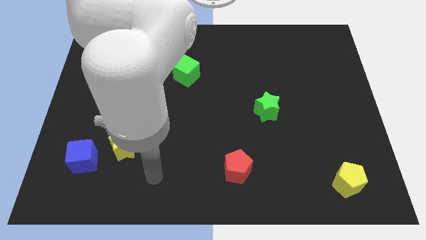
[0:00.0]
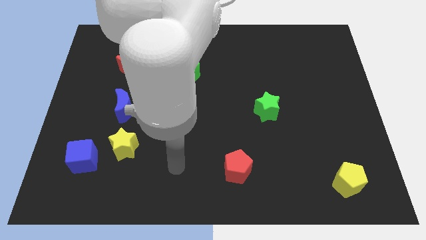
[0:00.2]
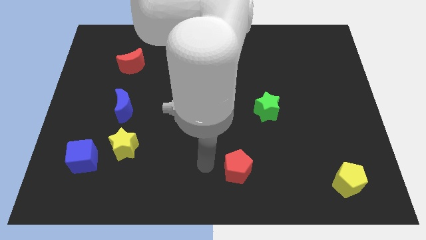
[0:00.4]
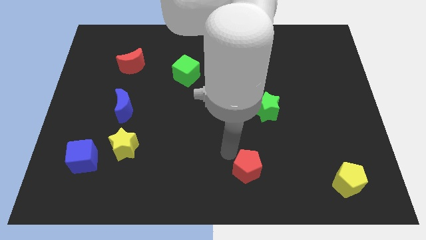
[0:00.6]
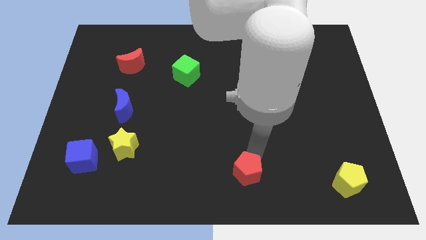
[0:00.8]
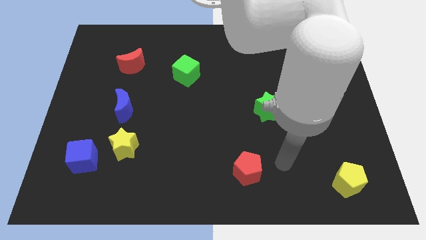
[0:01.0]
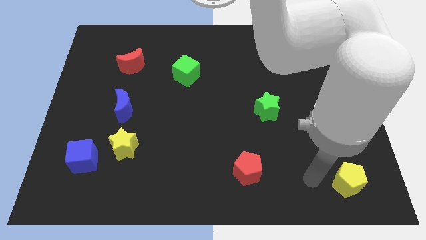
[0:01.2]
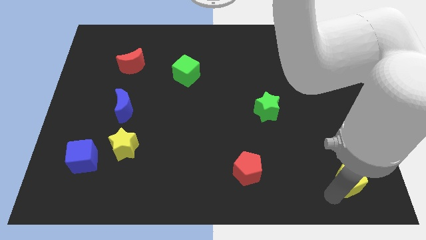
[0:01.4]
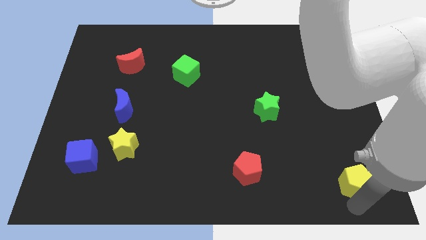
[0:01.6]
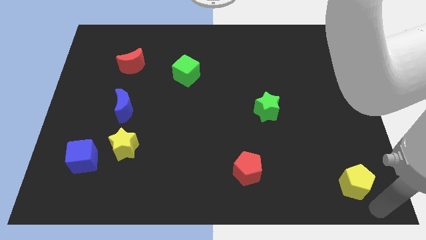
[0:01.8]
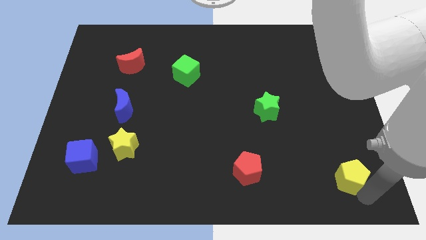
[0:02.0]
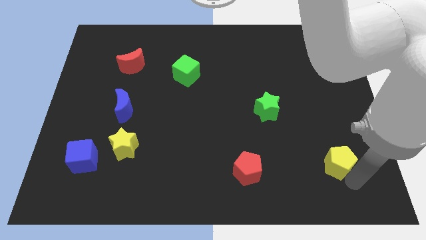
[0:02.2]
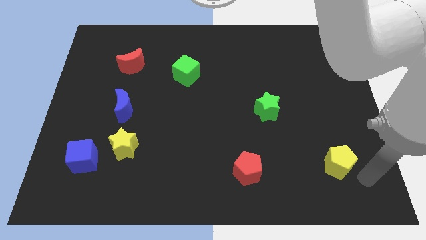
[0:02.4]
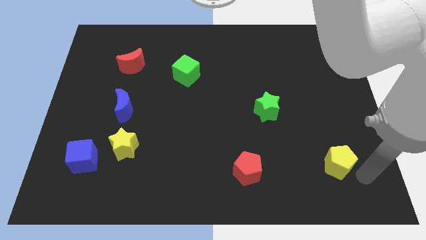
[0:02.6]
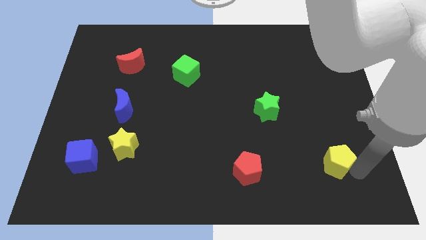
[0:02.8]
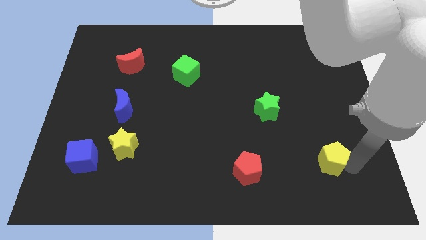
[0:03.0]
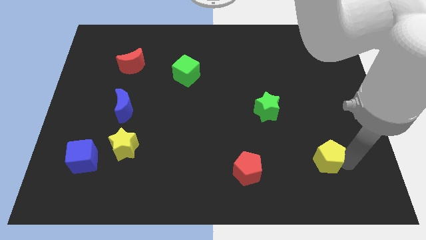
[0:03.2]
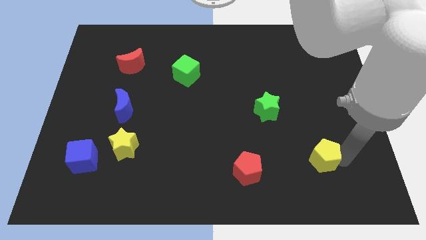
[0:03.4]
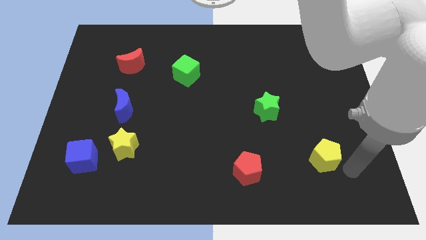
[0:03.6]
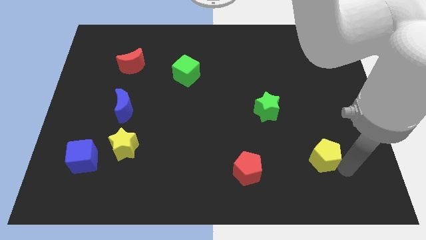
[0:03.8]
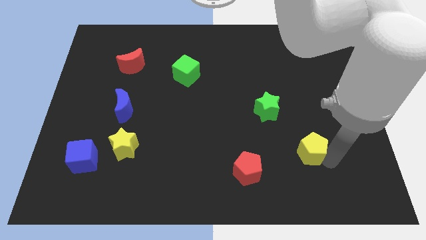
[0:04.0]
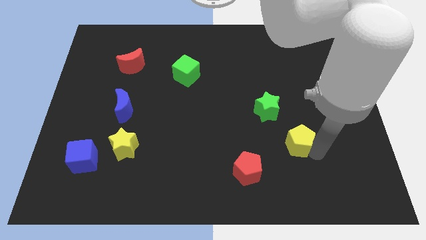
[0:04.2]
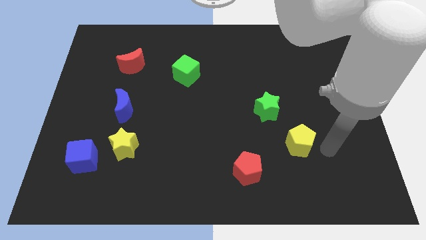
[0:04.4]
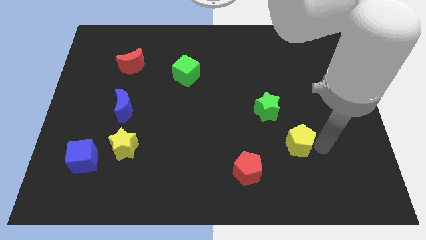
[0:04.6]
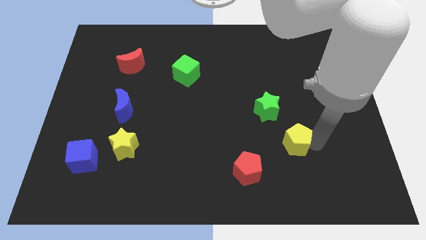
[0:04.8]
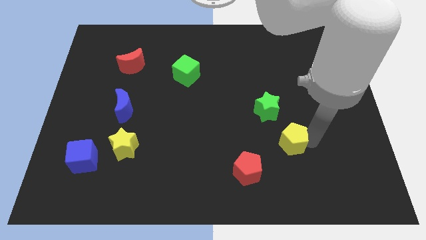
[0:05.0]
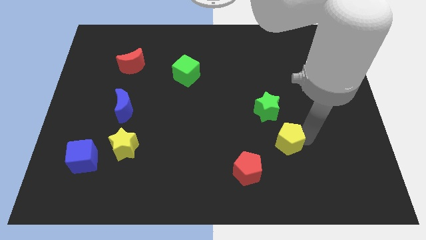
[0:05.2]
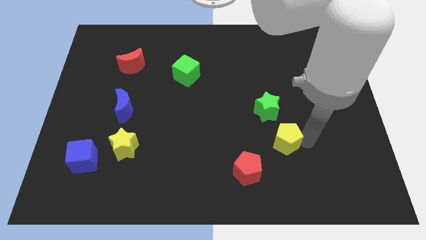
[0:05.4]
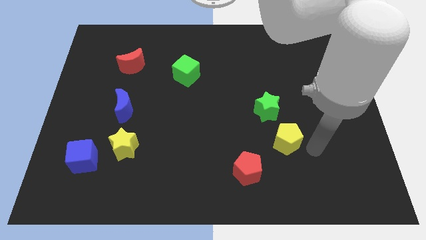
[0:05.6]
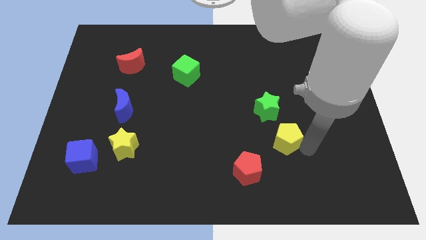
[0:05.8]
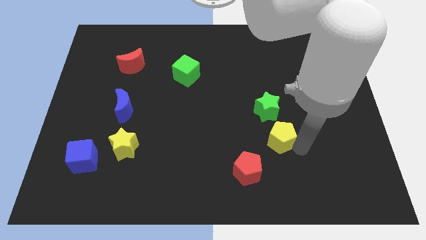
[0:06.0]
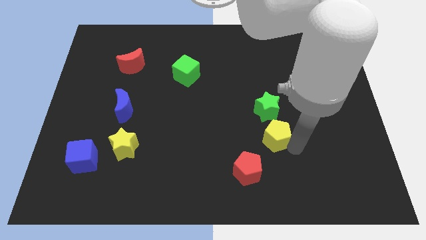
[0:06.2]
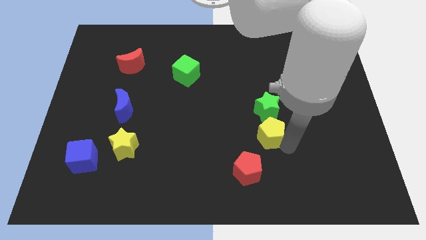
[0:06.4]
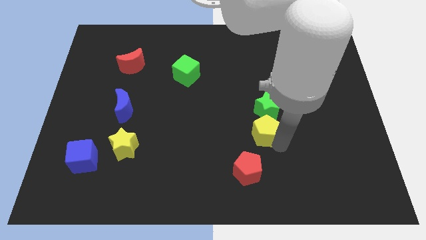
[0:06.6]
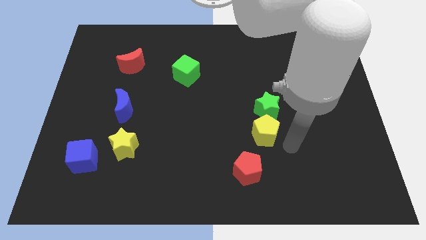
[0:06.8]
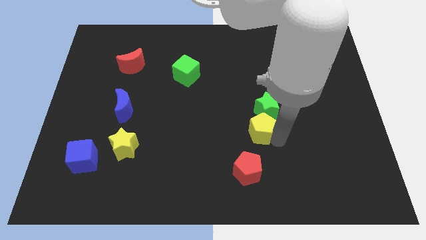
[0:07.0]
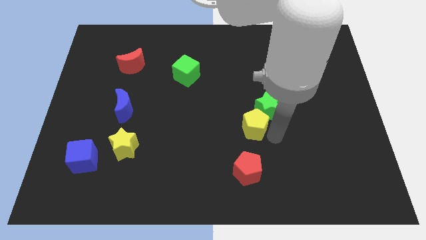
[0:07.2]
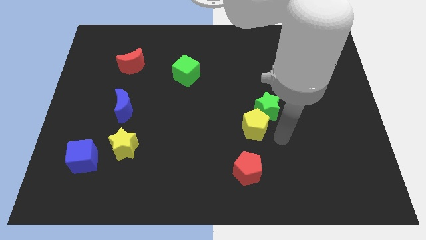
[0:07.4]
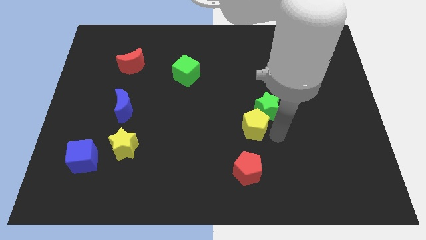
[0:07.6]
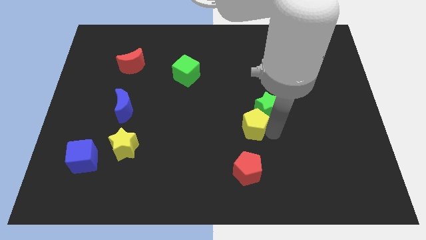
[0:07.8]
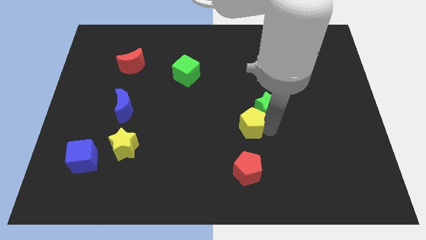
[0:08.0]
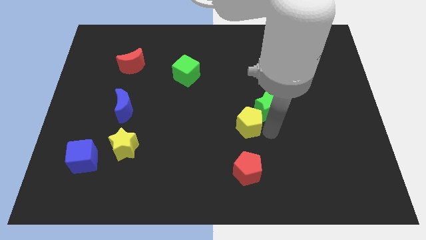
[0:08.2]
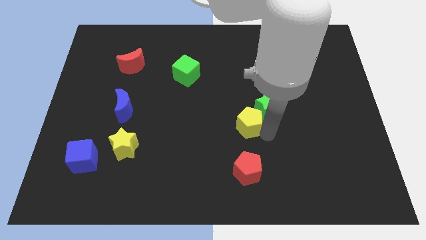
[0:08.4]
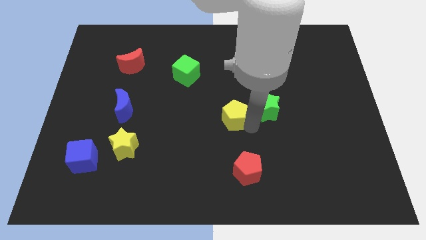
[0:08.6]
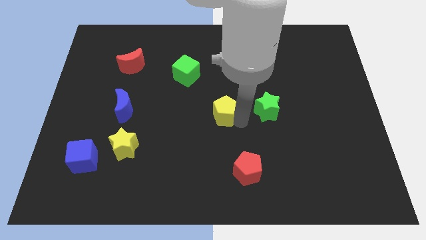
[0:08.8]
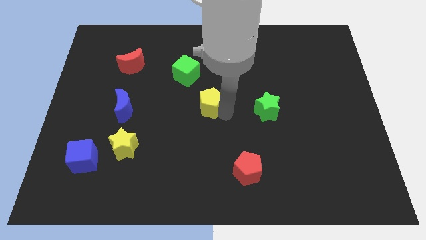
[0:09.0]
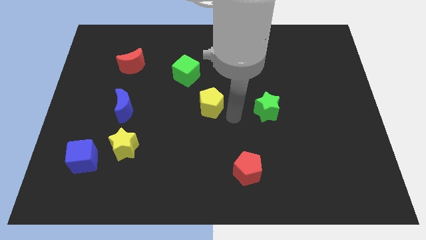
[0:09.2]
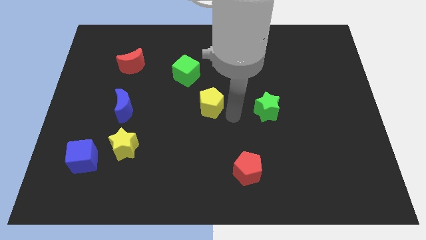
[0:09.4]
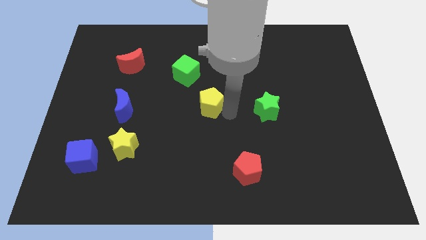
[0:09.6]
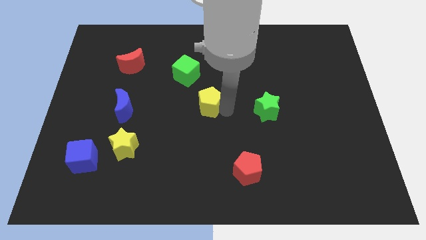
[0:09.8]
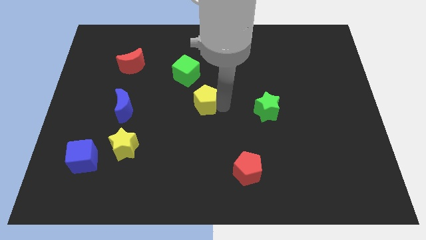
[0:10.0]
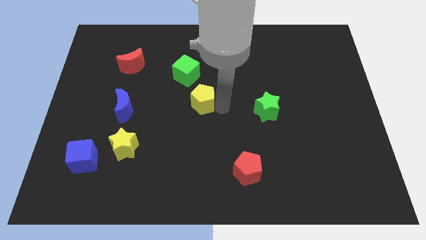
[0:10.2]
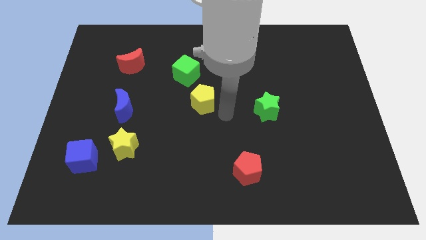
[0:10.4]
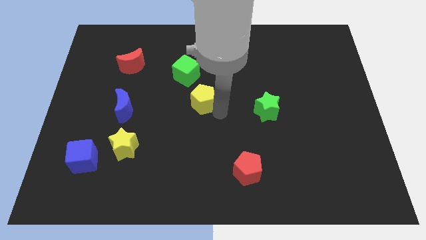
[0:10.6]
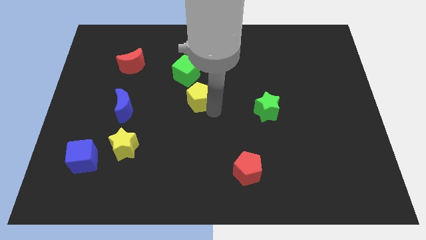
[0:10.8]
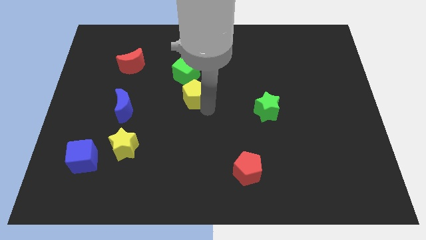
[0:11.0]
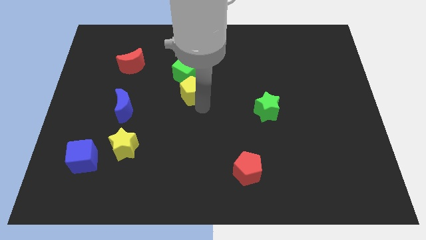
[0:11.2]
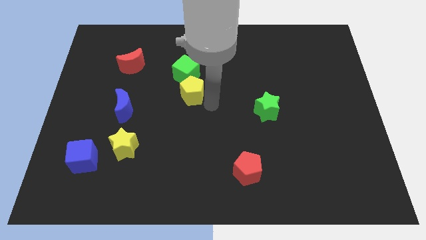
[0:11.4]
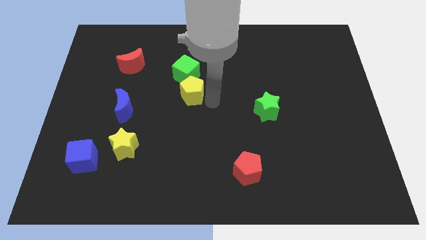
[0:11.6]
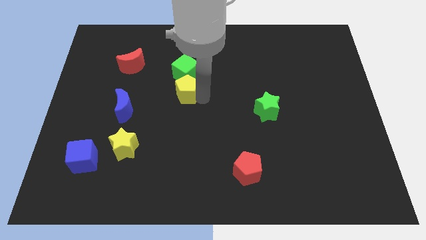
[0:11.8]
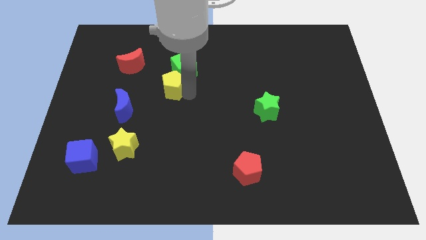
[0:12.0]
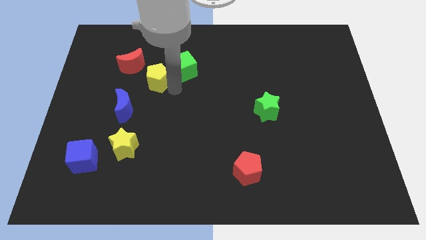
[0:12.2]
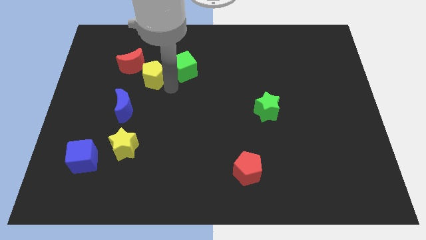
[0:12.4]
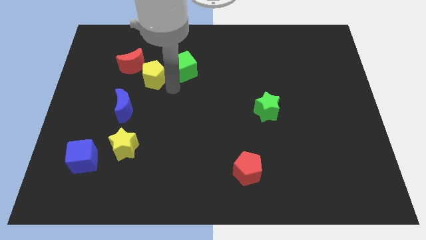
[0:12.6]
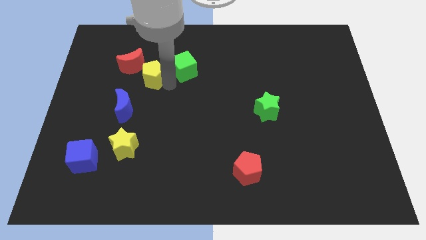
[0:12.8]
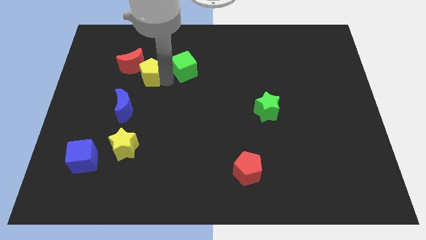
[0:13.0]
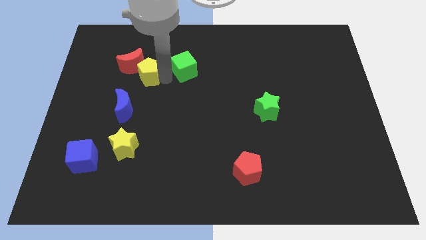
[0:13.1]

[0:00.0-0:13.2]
put the yellow pentagon next to the red moon
